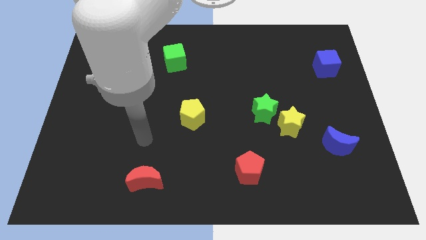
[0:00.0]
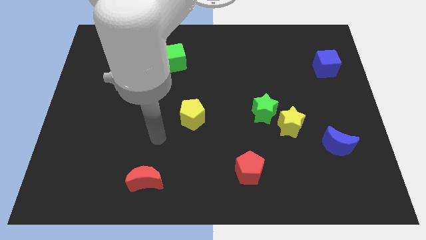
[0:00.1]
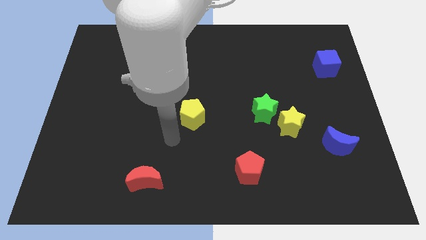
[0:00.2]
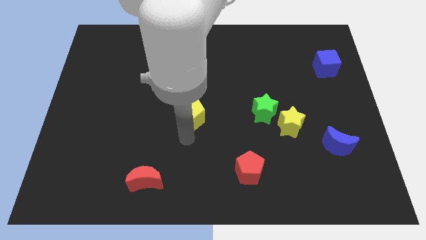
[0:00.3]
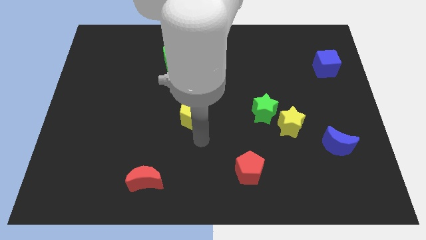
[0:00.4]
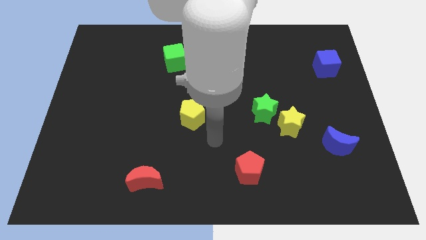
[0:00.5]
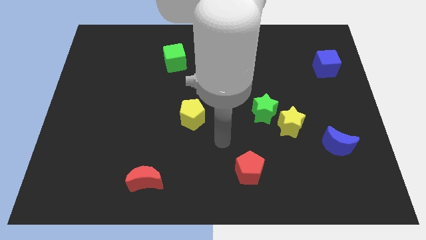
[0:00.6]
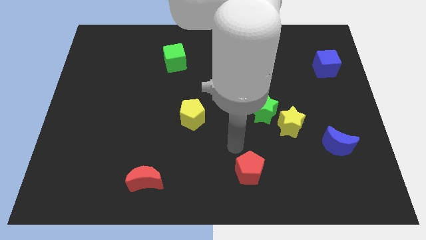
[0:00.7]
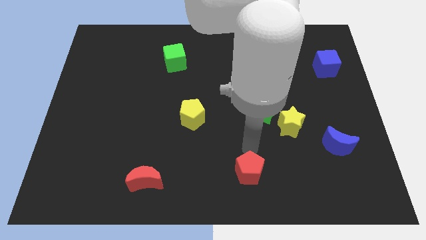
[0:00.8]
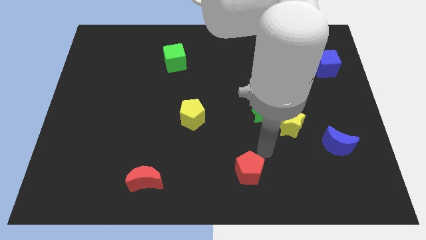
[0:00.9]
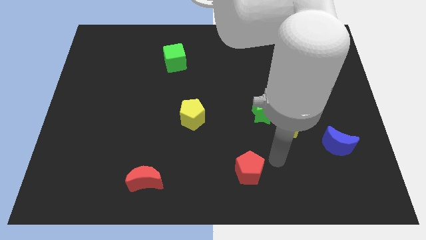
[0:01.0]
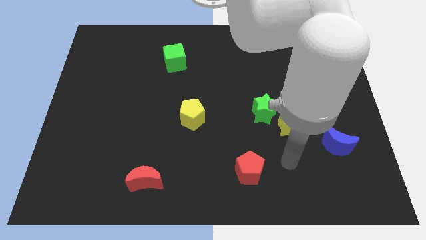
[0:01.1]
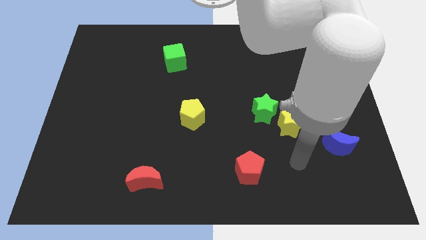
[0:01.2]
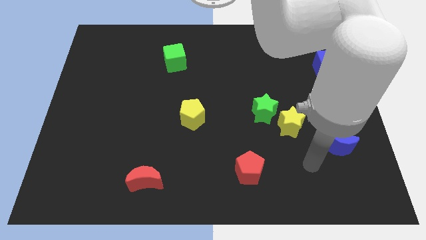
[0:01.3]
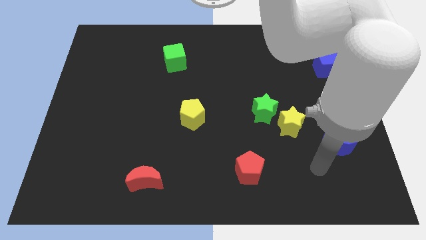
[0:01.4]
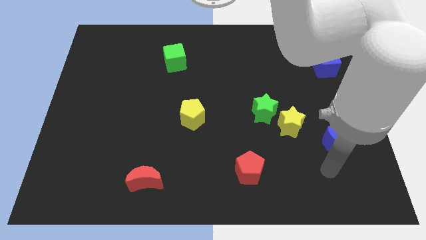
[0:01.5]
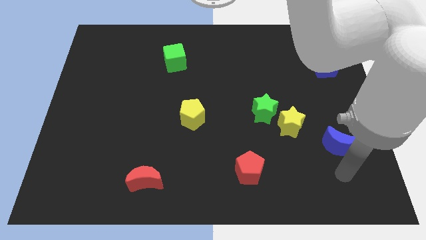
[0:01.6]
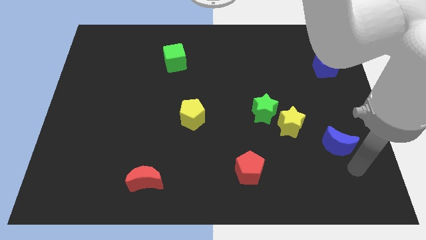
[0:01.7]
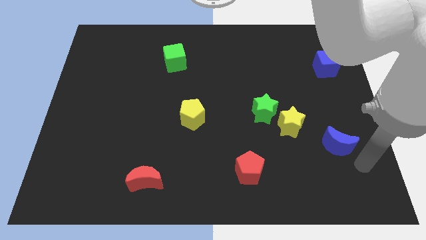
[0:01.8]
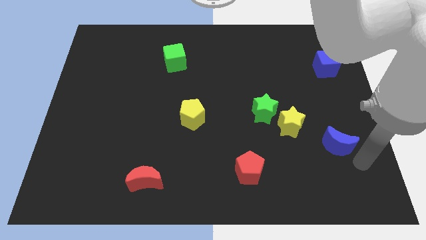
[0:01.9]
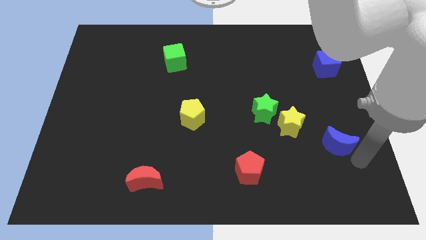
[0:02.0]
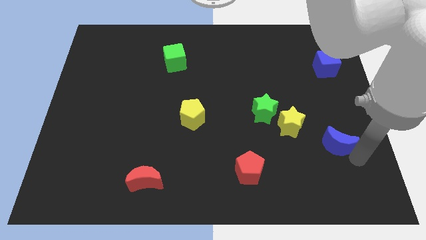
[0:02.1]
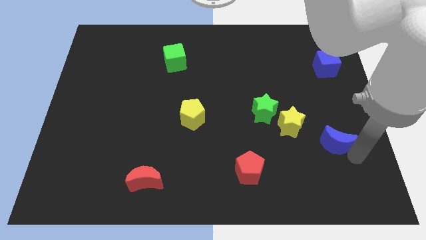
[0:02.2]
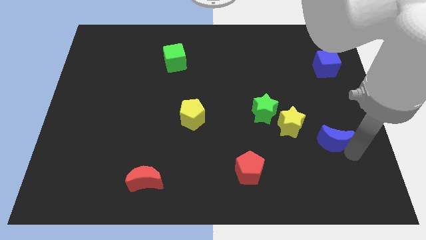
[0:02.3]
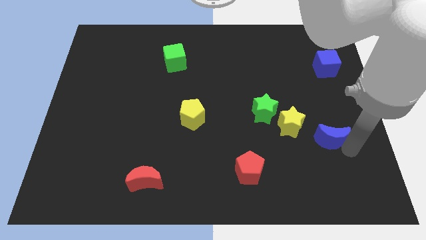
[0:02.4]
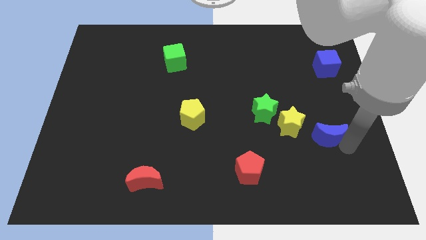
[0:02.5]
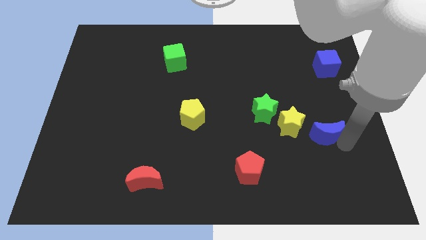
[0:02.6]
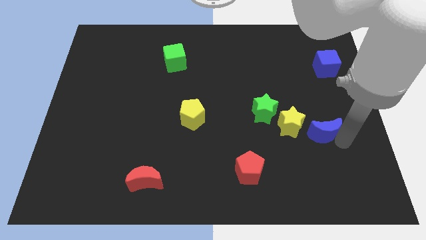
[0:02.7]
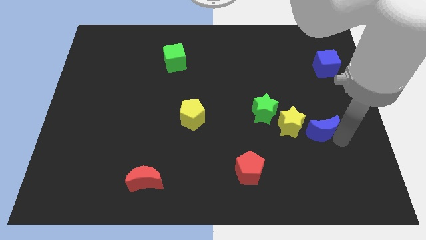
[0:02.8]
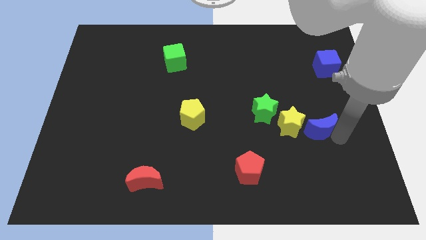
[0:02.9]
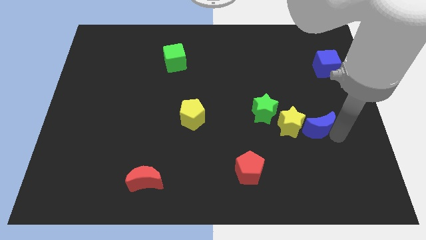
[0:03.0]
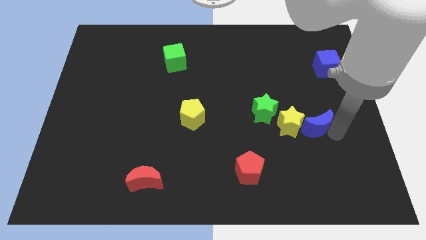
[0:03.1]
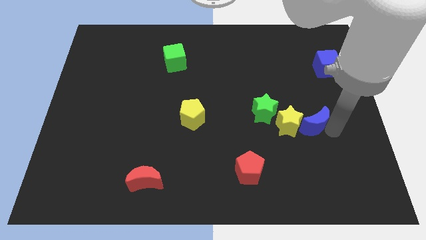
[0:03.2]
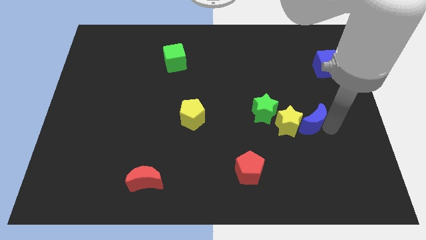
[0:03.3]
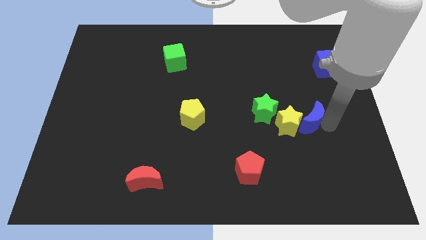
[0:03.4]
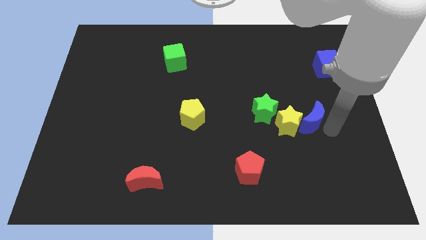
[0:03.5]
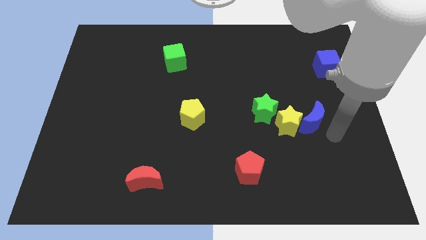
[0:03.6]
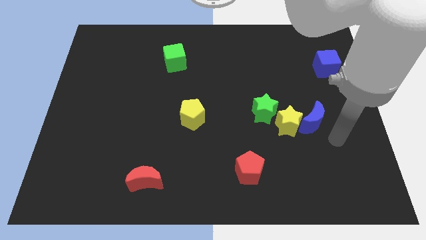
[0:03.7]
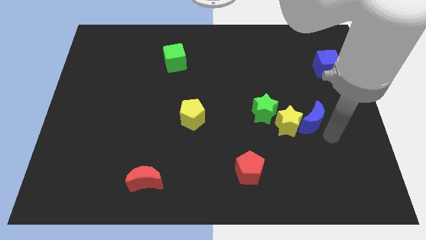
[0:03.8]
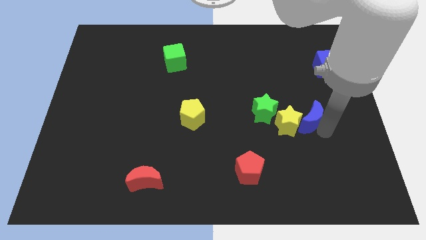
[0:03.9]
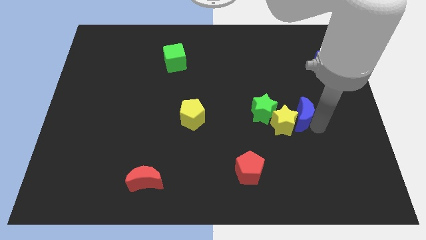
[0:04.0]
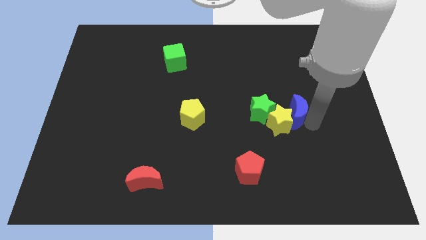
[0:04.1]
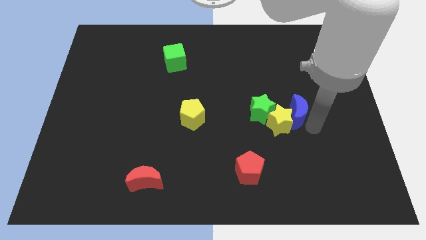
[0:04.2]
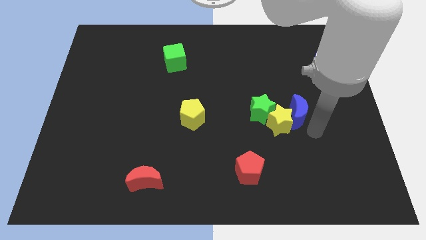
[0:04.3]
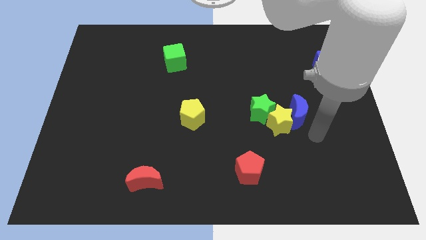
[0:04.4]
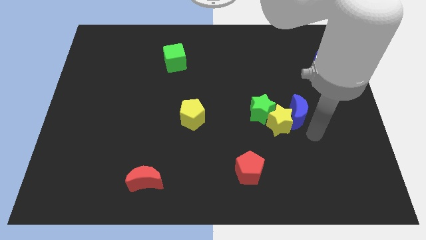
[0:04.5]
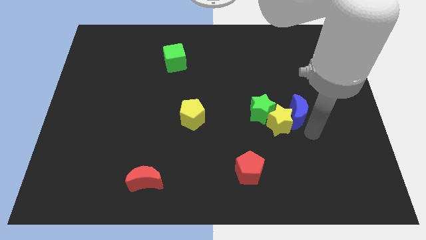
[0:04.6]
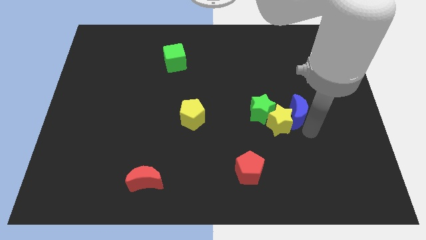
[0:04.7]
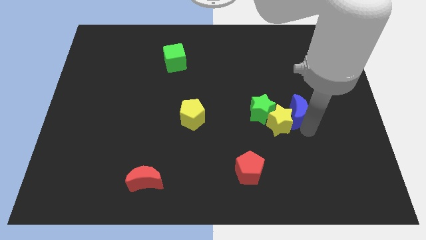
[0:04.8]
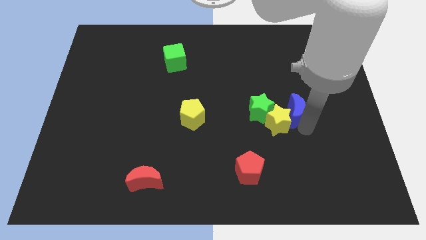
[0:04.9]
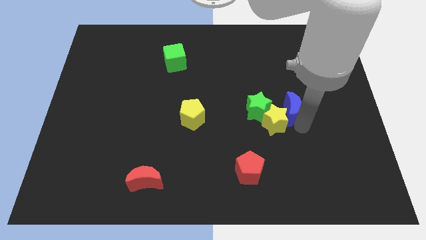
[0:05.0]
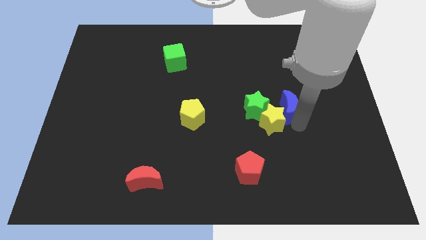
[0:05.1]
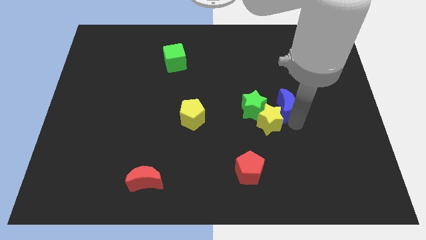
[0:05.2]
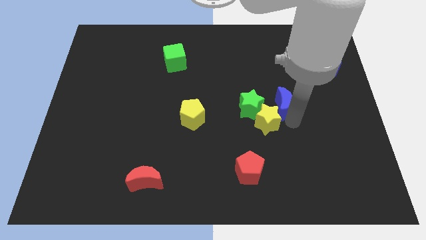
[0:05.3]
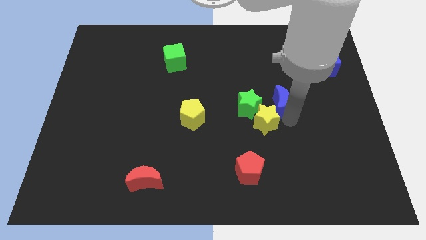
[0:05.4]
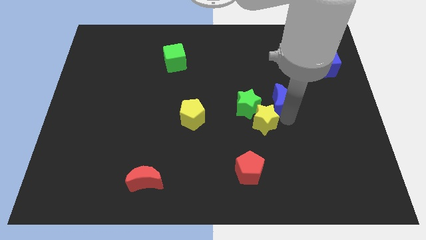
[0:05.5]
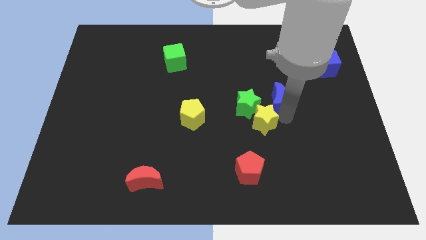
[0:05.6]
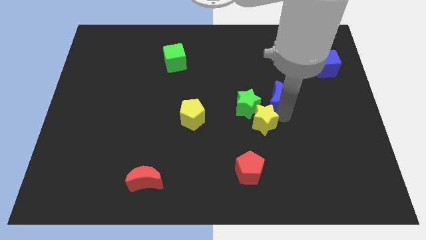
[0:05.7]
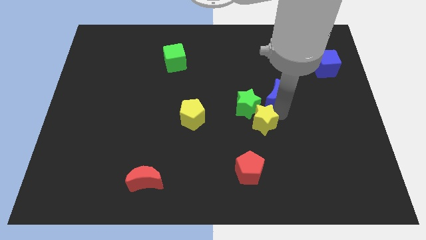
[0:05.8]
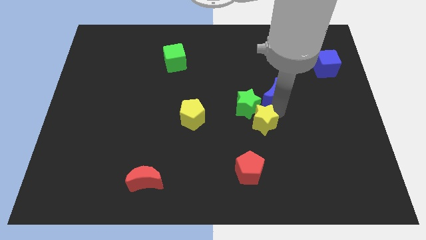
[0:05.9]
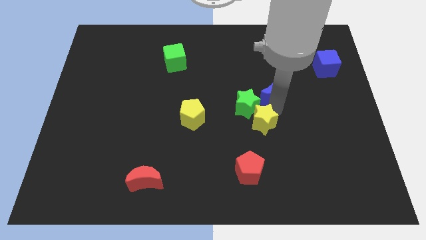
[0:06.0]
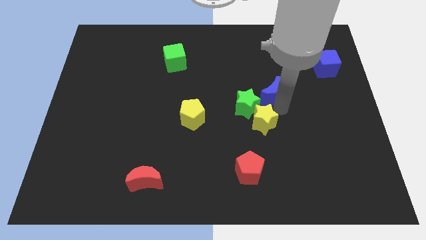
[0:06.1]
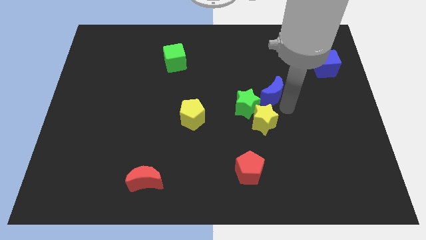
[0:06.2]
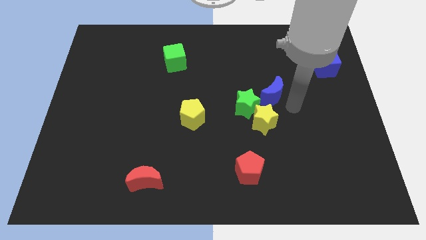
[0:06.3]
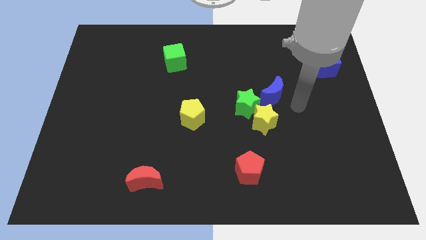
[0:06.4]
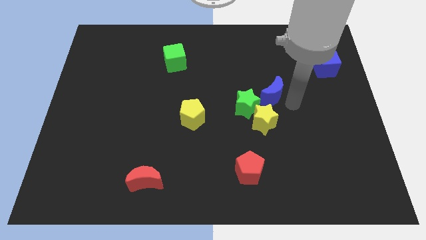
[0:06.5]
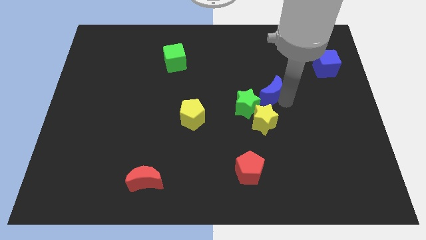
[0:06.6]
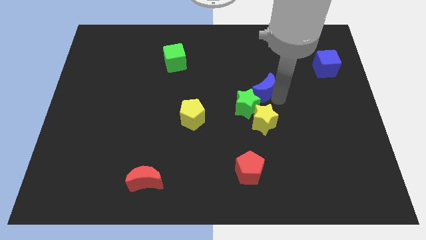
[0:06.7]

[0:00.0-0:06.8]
push the blue moon up and then to the left

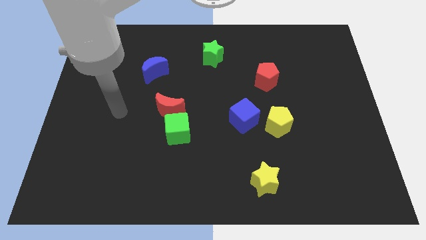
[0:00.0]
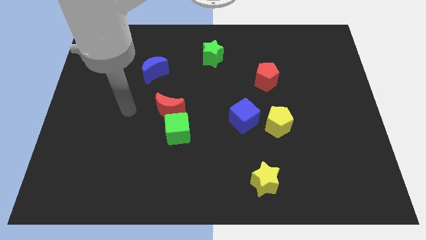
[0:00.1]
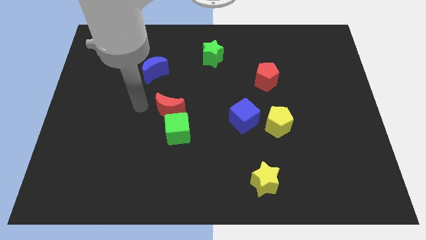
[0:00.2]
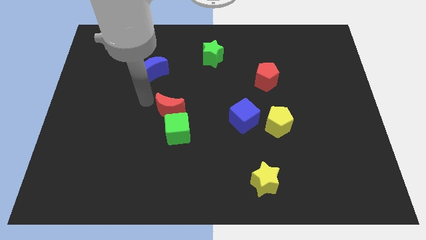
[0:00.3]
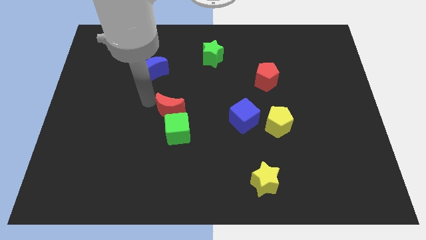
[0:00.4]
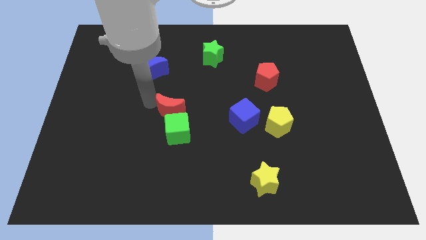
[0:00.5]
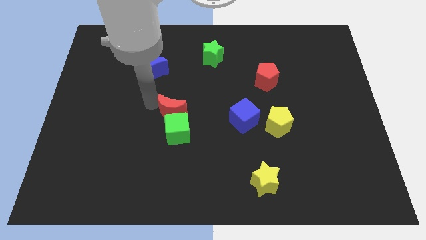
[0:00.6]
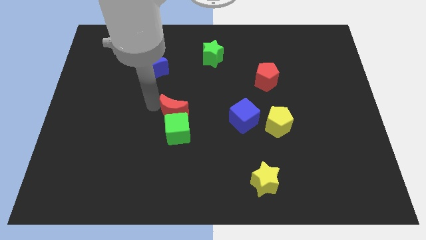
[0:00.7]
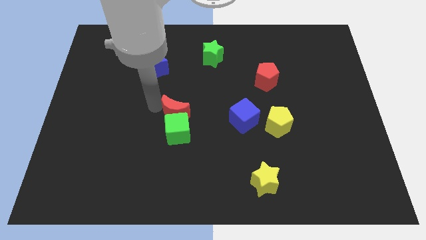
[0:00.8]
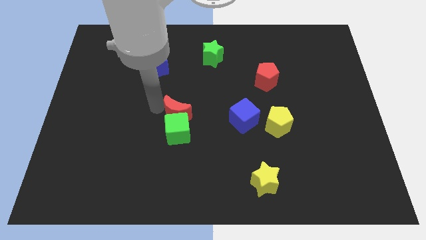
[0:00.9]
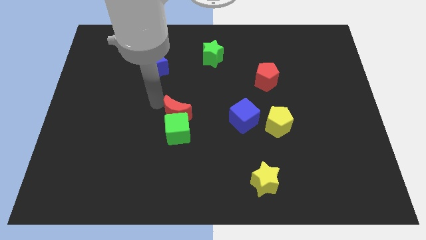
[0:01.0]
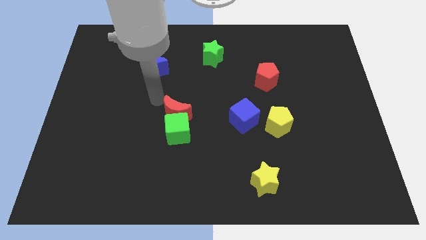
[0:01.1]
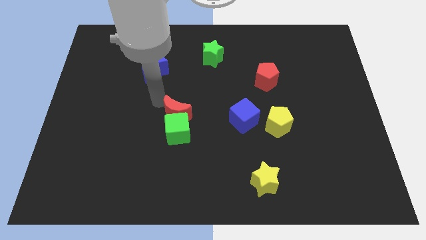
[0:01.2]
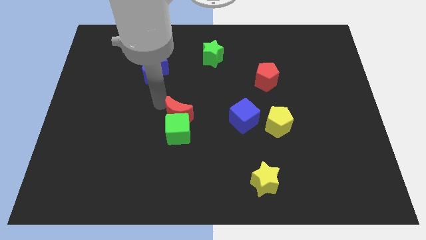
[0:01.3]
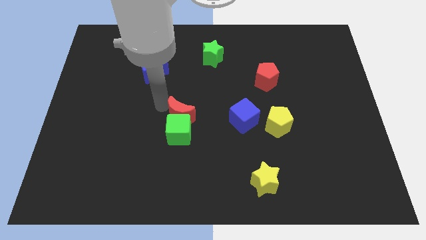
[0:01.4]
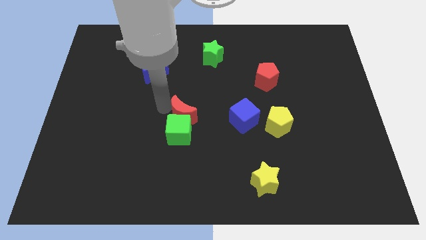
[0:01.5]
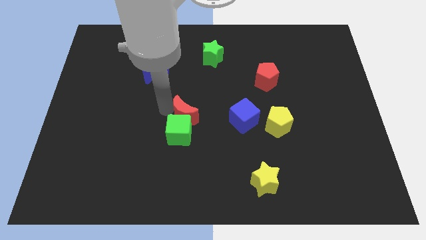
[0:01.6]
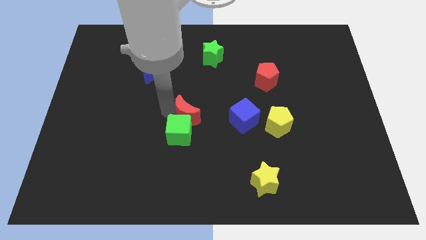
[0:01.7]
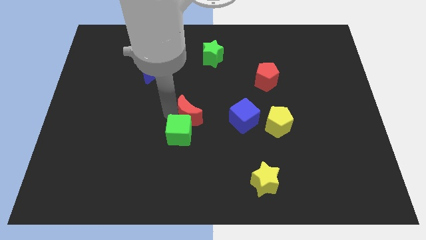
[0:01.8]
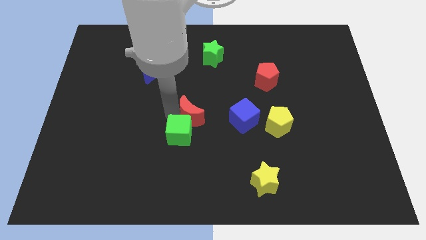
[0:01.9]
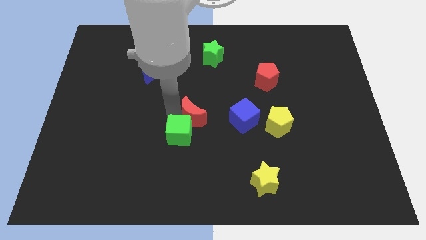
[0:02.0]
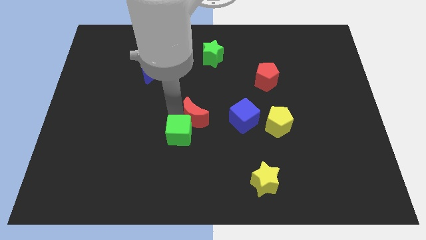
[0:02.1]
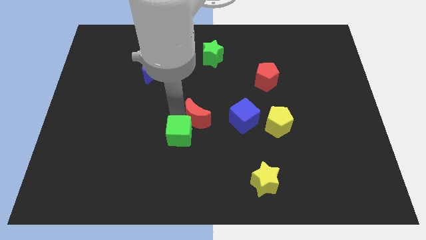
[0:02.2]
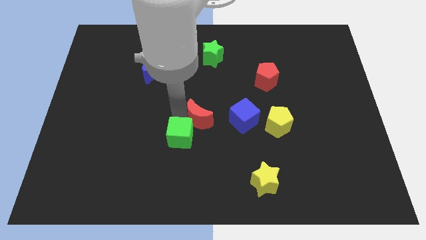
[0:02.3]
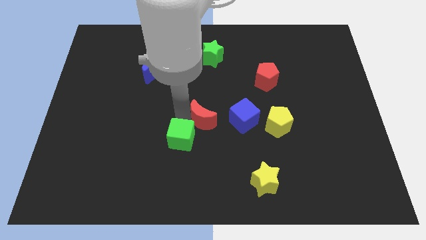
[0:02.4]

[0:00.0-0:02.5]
push the red moon slightly down and right
